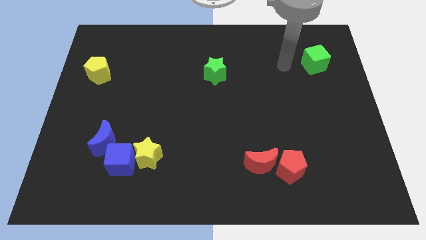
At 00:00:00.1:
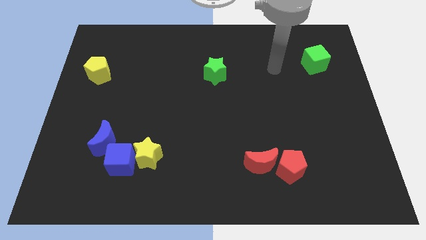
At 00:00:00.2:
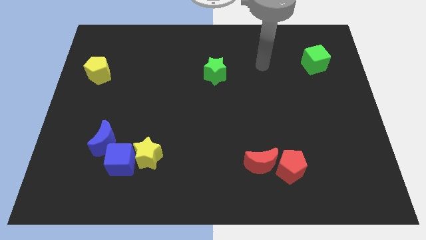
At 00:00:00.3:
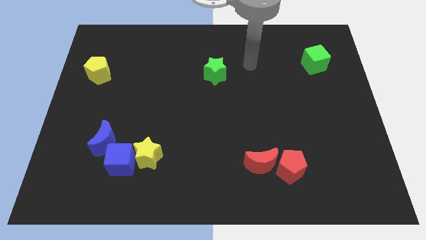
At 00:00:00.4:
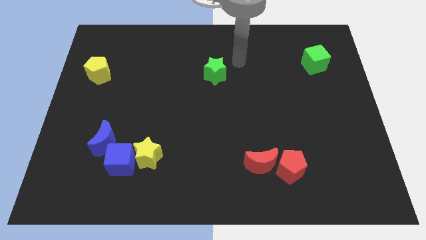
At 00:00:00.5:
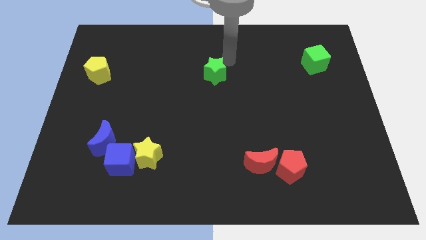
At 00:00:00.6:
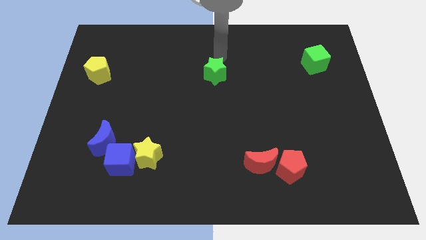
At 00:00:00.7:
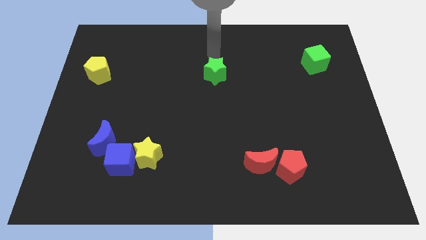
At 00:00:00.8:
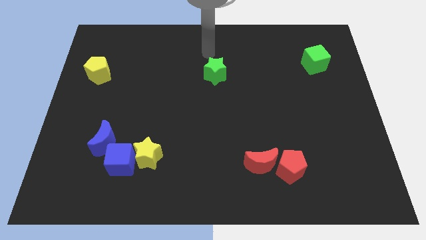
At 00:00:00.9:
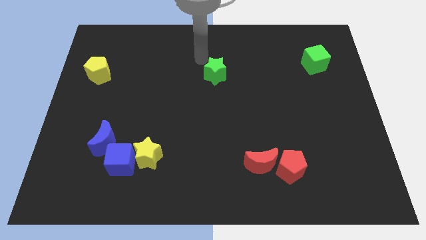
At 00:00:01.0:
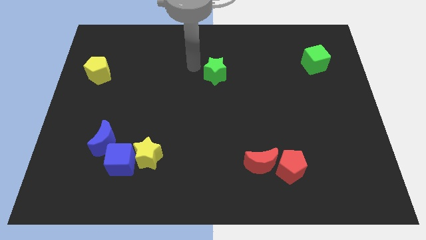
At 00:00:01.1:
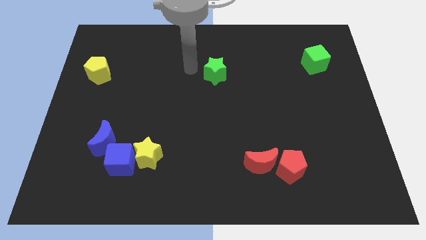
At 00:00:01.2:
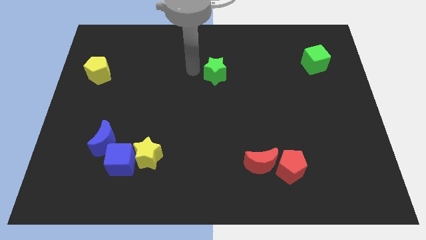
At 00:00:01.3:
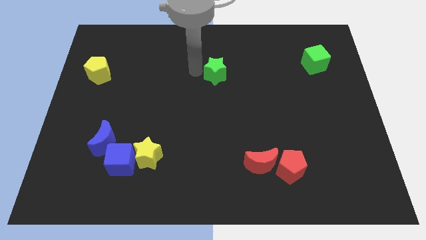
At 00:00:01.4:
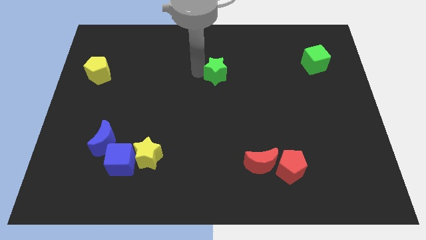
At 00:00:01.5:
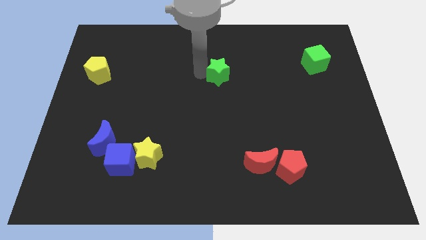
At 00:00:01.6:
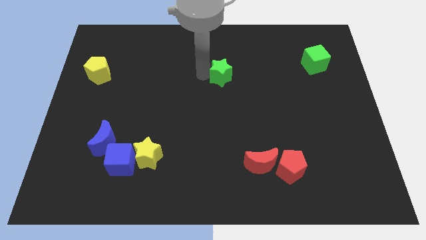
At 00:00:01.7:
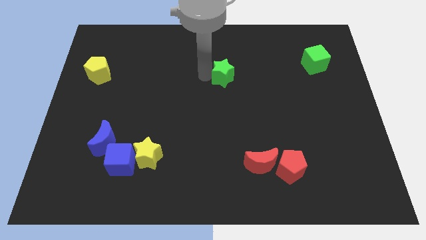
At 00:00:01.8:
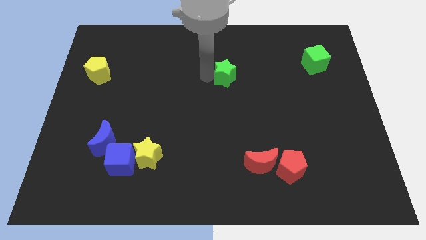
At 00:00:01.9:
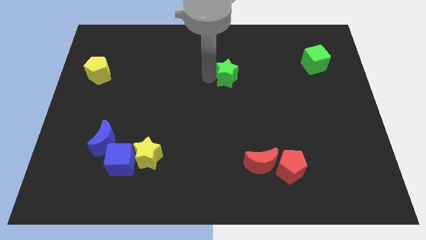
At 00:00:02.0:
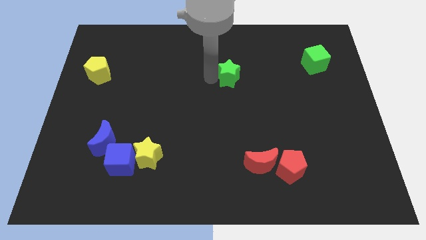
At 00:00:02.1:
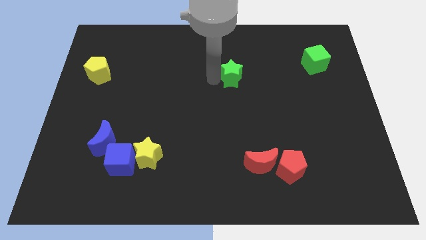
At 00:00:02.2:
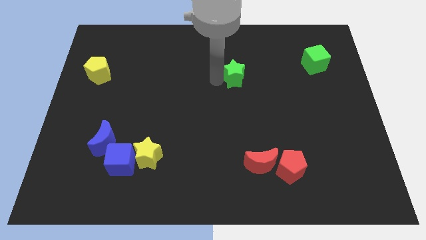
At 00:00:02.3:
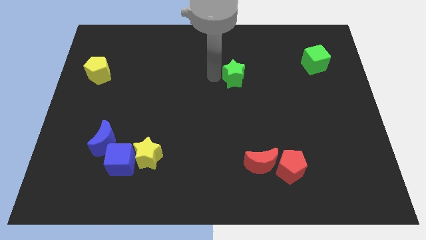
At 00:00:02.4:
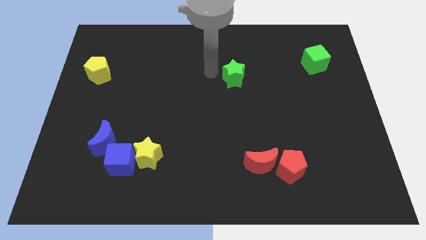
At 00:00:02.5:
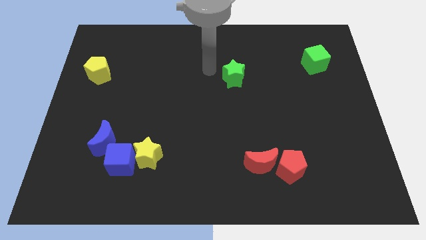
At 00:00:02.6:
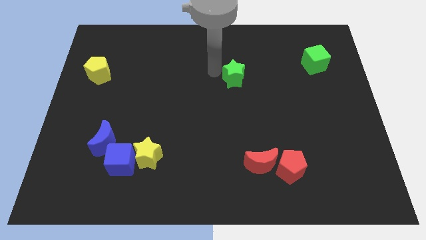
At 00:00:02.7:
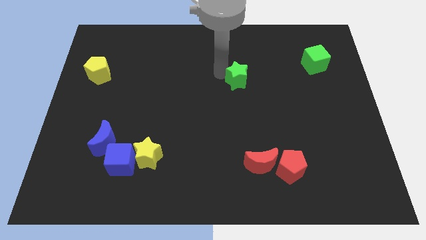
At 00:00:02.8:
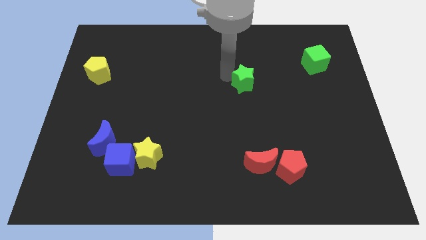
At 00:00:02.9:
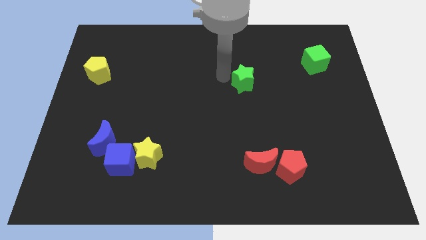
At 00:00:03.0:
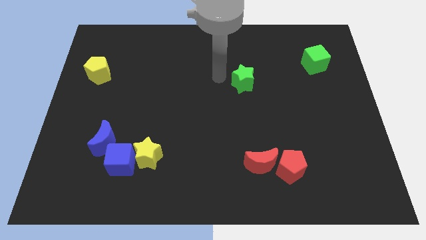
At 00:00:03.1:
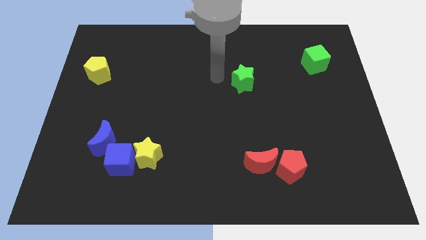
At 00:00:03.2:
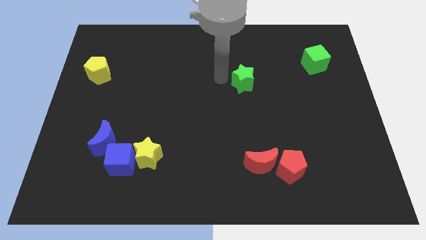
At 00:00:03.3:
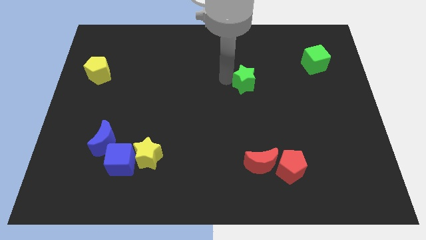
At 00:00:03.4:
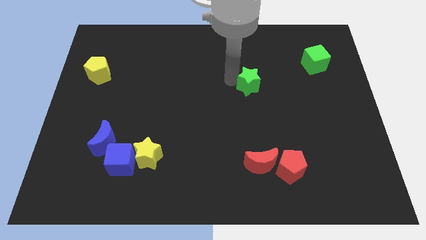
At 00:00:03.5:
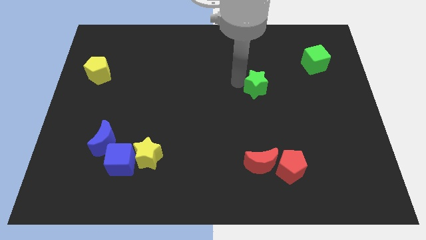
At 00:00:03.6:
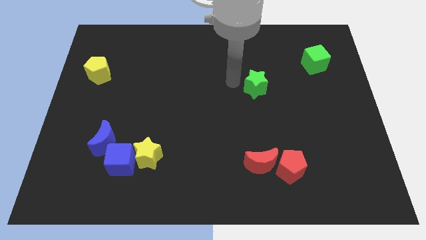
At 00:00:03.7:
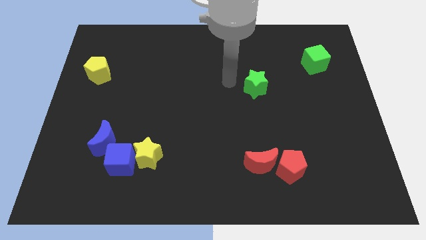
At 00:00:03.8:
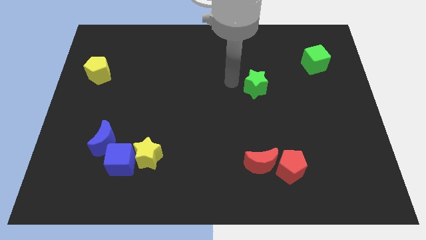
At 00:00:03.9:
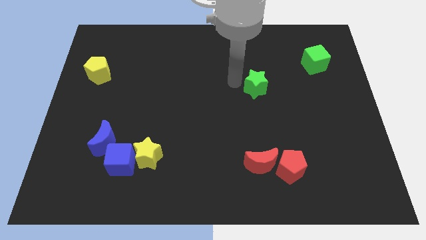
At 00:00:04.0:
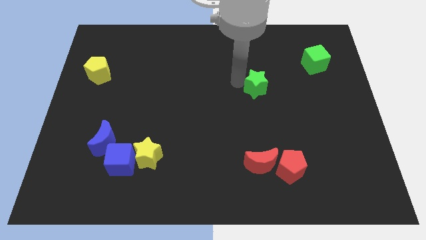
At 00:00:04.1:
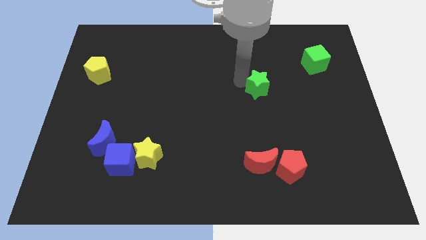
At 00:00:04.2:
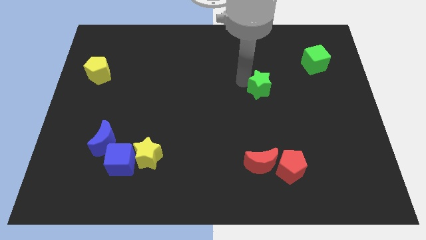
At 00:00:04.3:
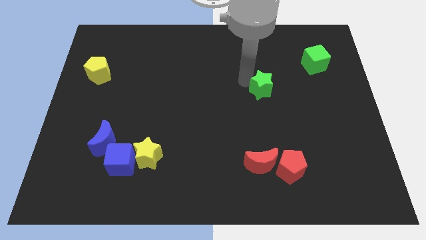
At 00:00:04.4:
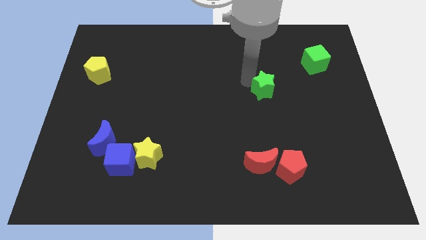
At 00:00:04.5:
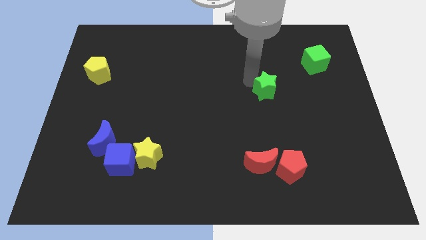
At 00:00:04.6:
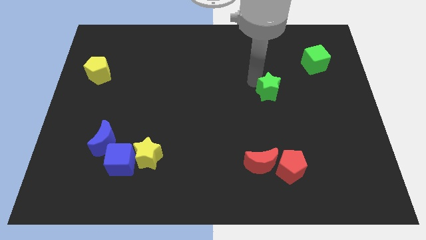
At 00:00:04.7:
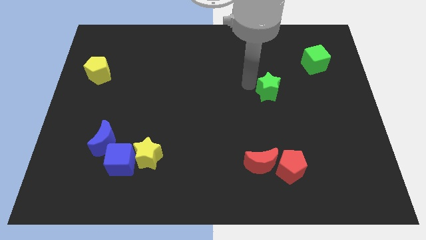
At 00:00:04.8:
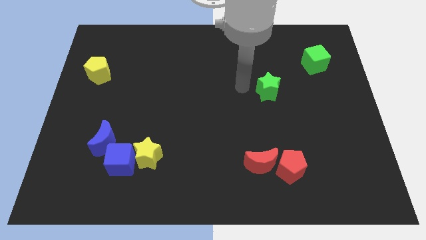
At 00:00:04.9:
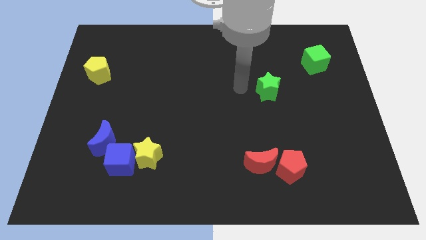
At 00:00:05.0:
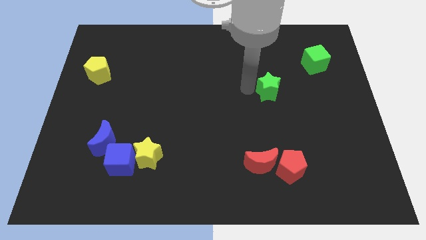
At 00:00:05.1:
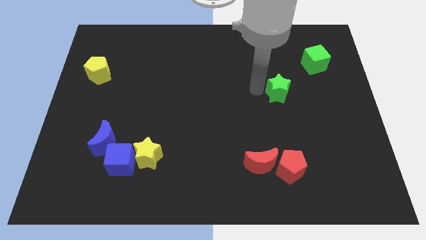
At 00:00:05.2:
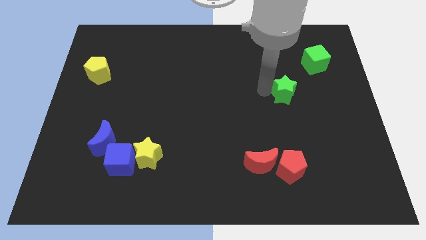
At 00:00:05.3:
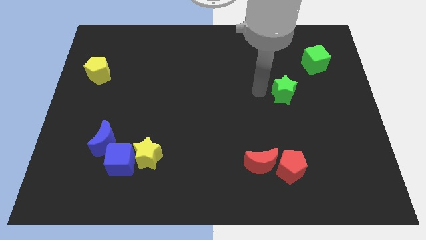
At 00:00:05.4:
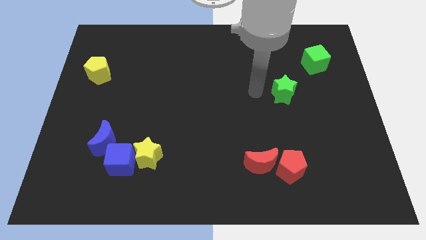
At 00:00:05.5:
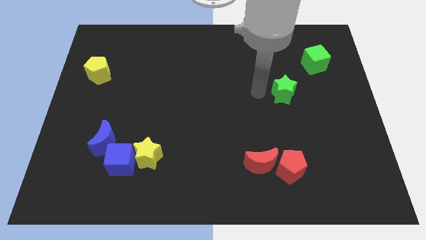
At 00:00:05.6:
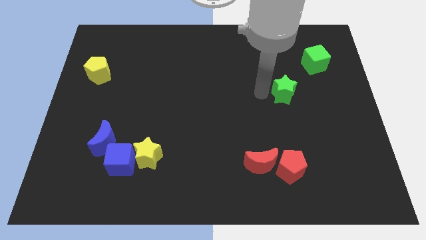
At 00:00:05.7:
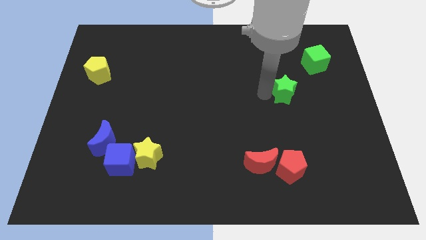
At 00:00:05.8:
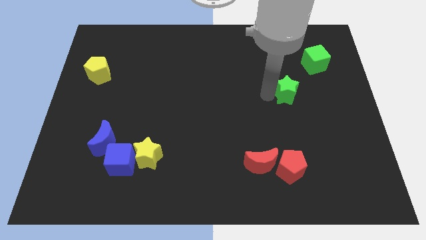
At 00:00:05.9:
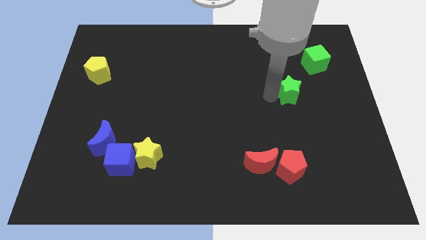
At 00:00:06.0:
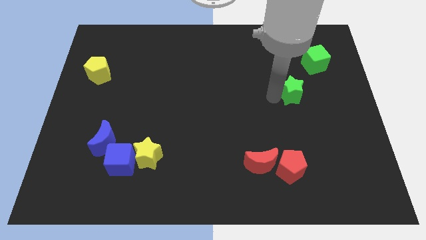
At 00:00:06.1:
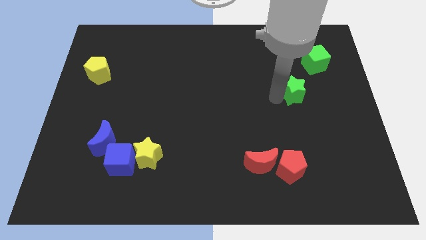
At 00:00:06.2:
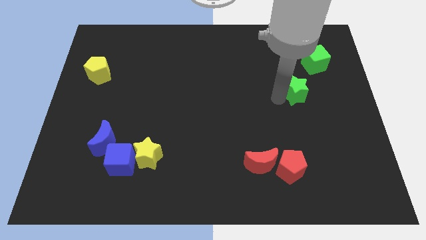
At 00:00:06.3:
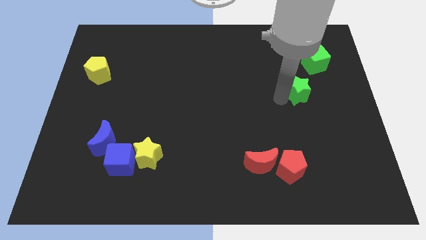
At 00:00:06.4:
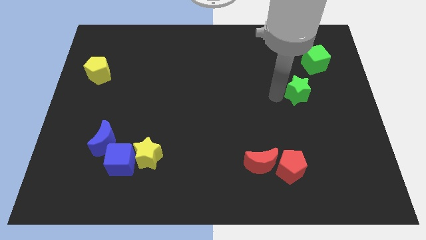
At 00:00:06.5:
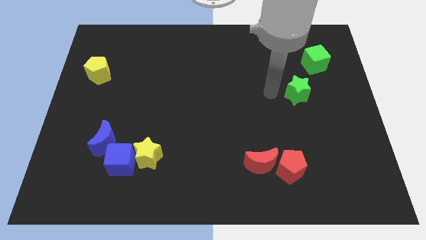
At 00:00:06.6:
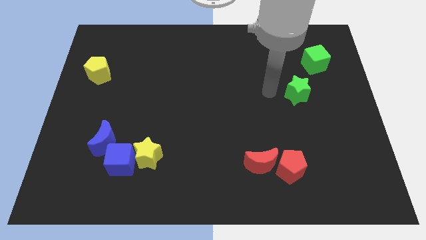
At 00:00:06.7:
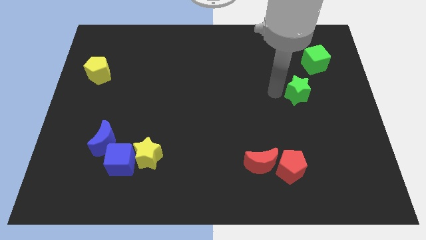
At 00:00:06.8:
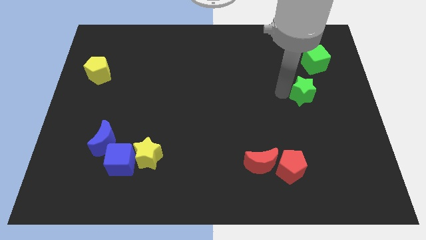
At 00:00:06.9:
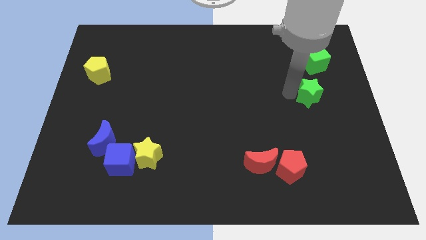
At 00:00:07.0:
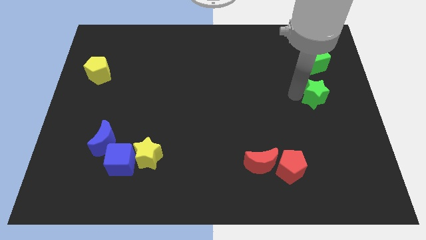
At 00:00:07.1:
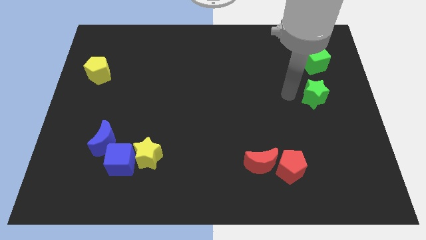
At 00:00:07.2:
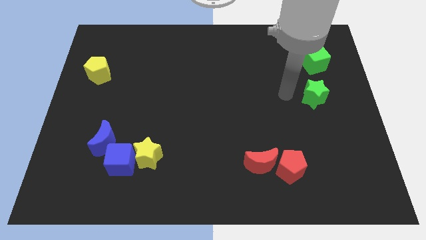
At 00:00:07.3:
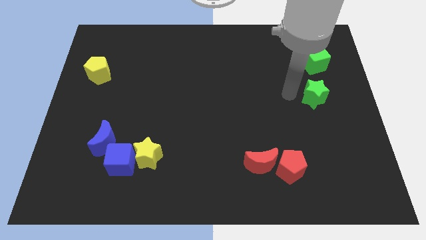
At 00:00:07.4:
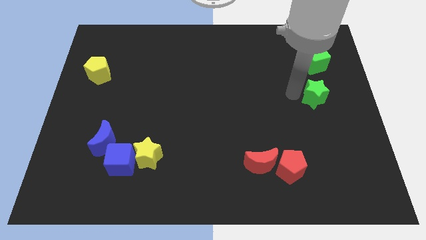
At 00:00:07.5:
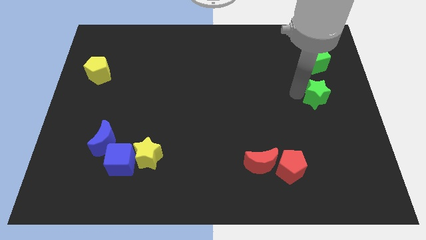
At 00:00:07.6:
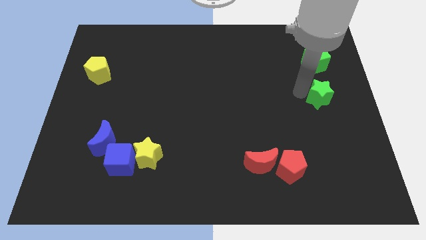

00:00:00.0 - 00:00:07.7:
put the green star to the right side
